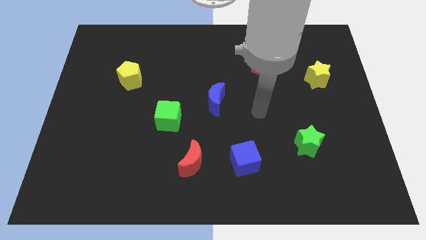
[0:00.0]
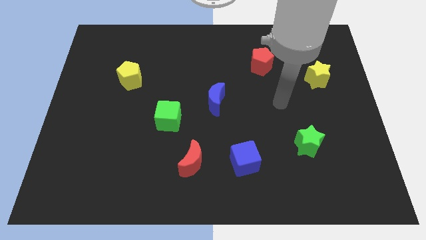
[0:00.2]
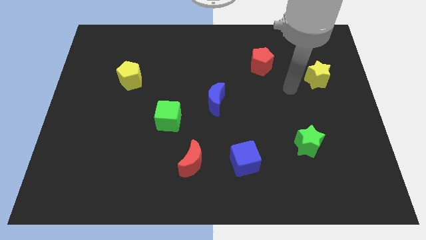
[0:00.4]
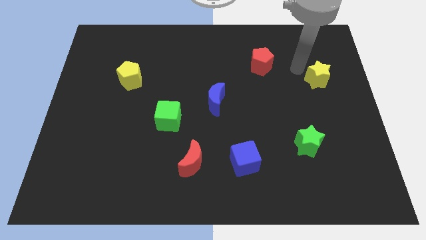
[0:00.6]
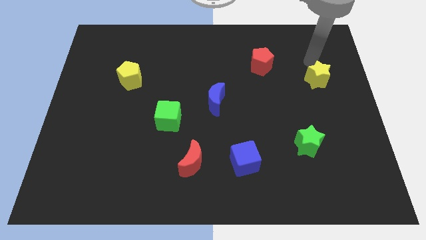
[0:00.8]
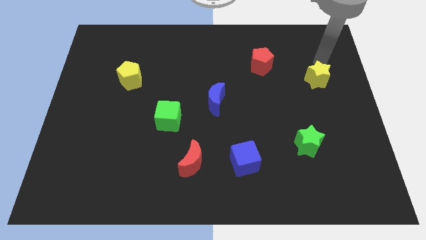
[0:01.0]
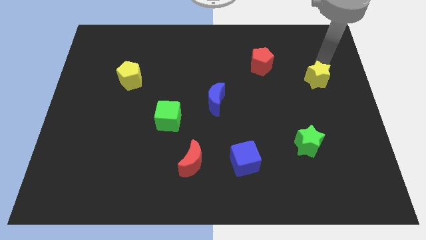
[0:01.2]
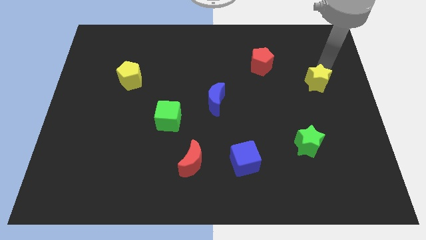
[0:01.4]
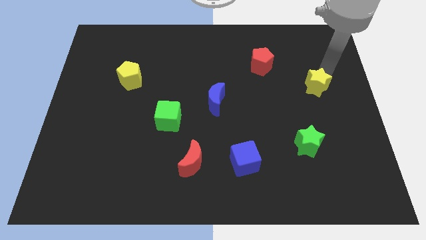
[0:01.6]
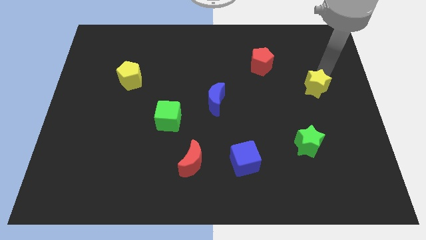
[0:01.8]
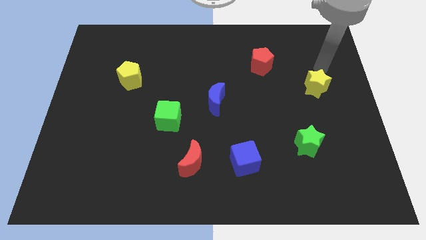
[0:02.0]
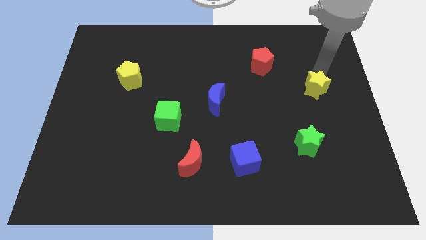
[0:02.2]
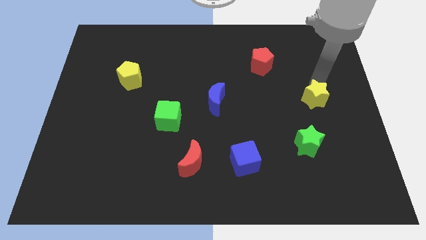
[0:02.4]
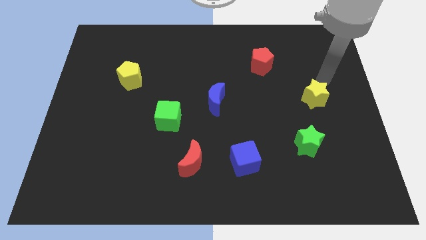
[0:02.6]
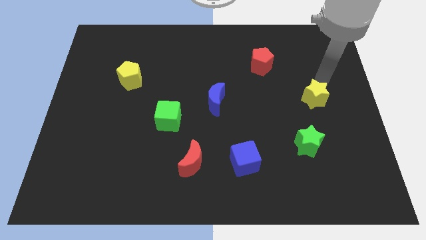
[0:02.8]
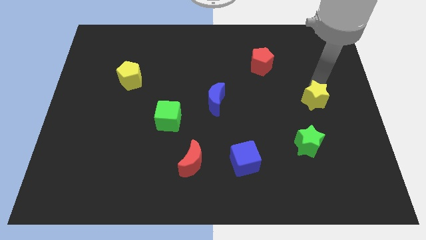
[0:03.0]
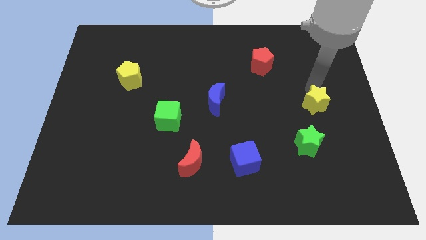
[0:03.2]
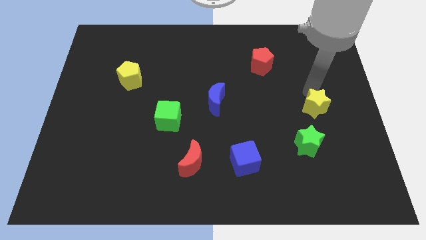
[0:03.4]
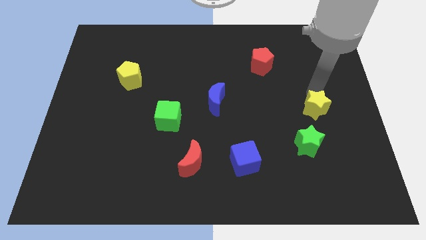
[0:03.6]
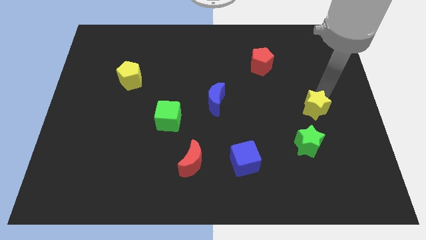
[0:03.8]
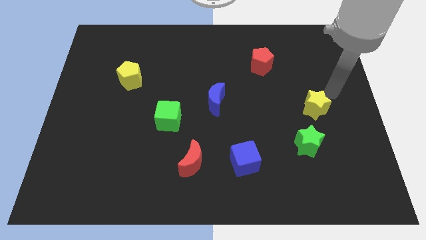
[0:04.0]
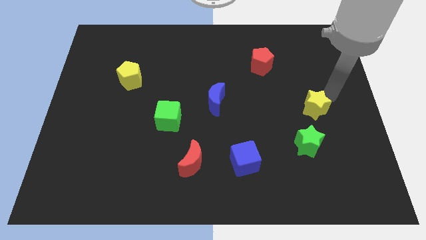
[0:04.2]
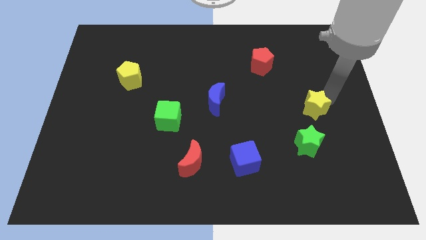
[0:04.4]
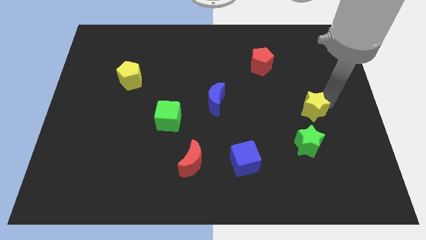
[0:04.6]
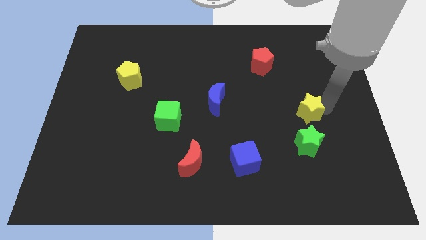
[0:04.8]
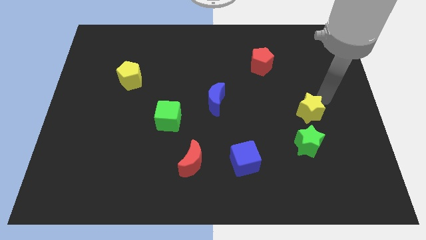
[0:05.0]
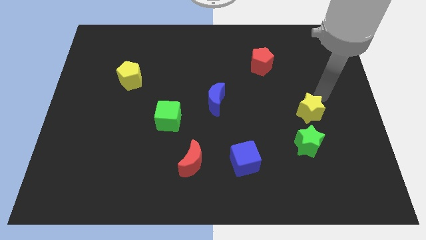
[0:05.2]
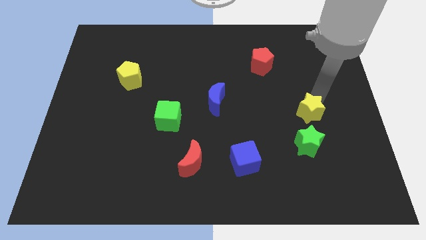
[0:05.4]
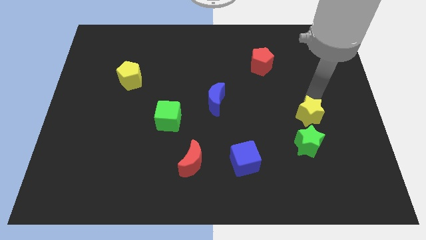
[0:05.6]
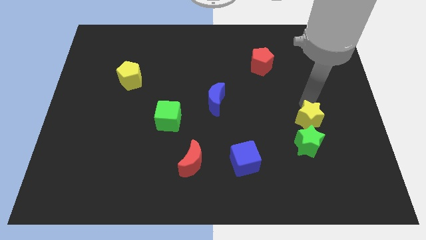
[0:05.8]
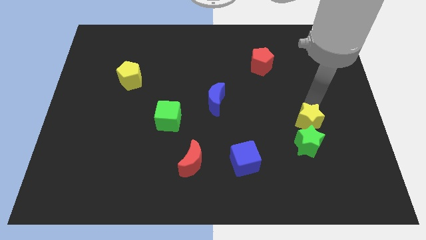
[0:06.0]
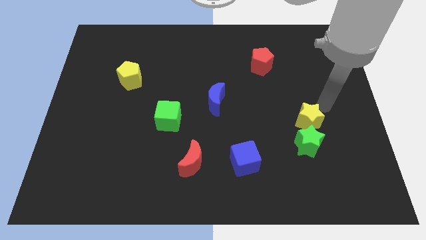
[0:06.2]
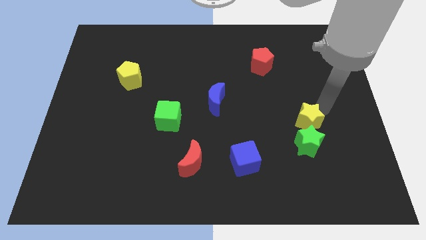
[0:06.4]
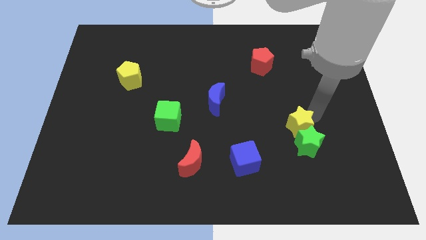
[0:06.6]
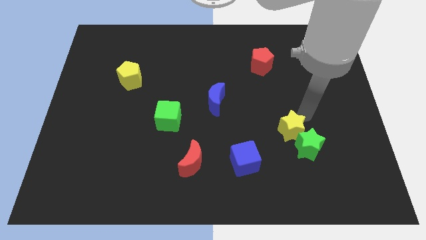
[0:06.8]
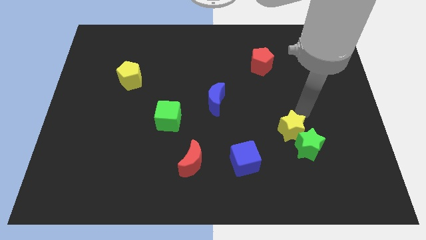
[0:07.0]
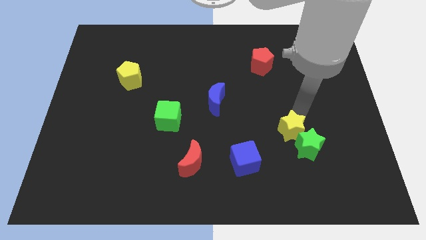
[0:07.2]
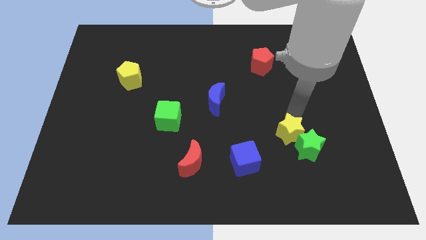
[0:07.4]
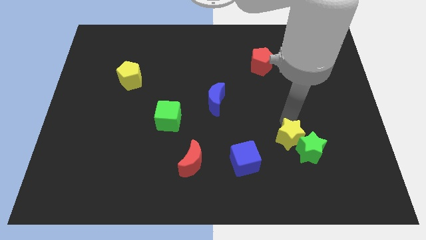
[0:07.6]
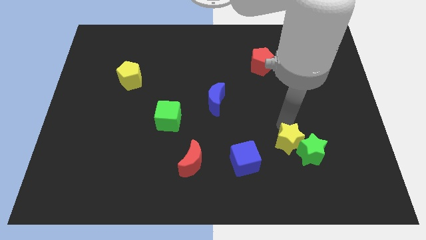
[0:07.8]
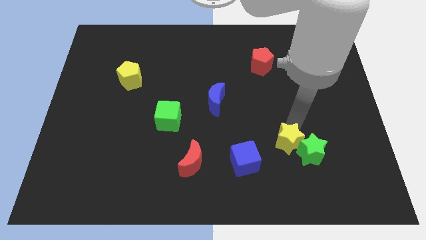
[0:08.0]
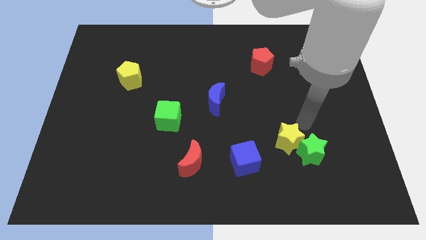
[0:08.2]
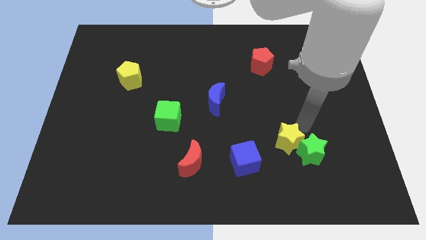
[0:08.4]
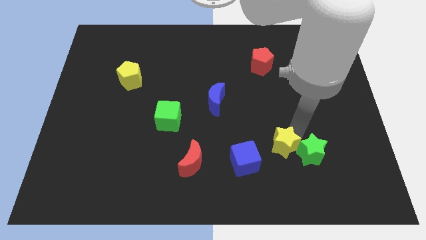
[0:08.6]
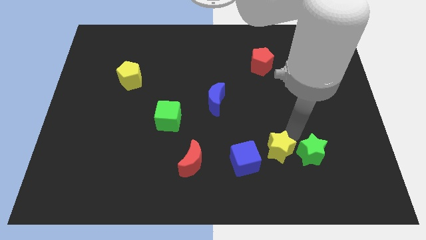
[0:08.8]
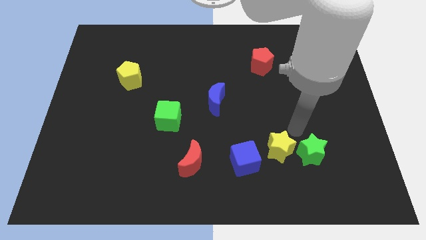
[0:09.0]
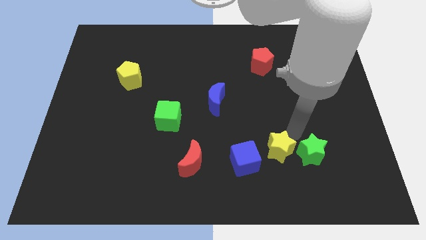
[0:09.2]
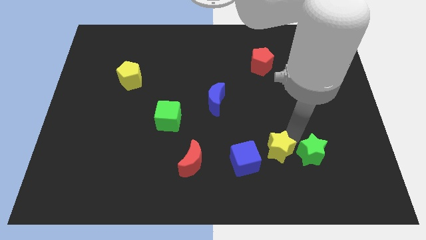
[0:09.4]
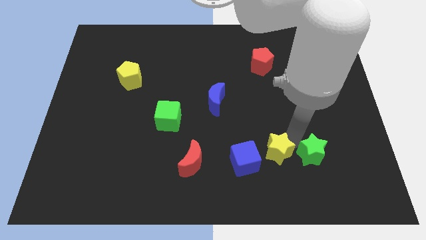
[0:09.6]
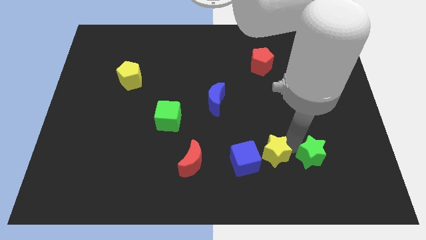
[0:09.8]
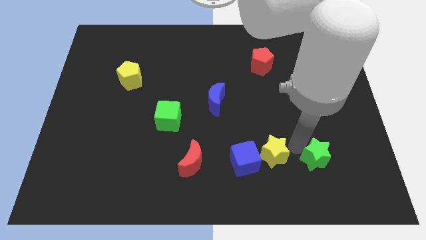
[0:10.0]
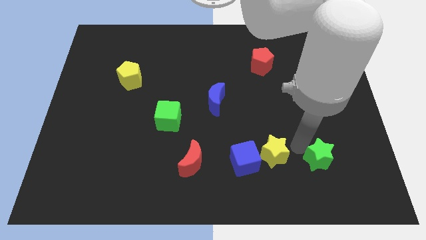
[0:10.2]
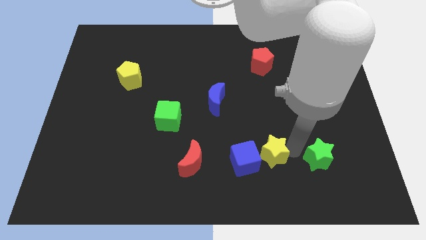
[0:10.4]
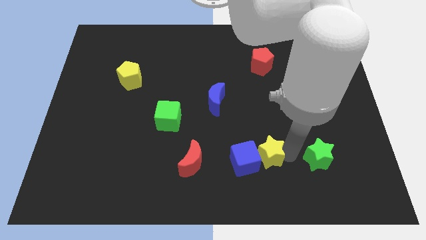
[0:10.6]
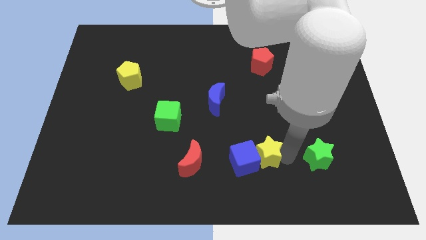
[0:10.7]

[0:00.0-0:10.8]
push the yellow star to the right of the red moon

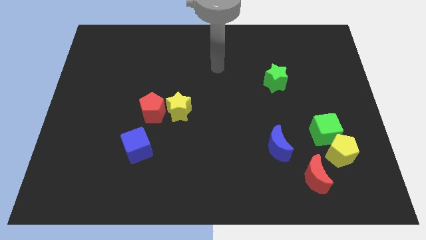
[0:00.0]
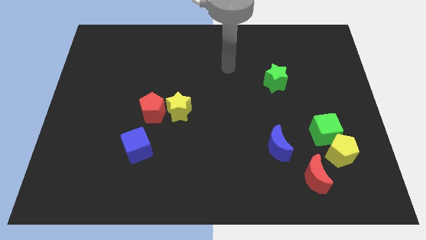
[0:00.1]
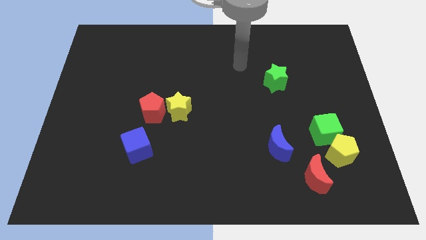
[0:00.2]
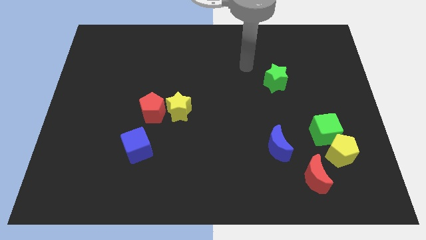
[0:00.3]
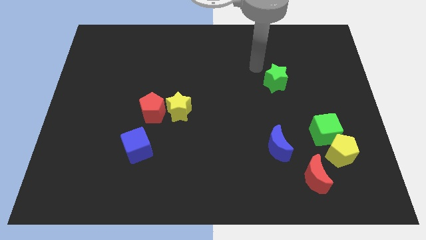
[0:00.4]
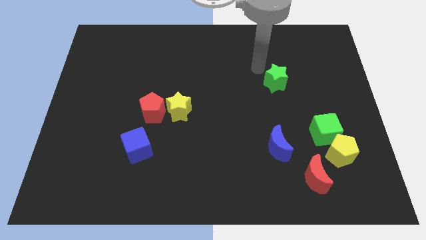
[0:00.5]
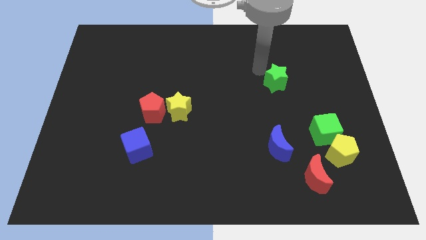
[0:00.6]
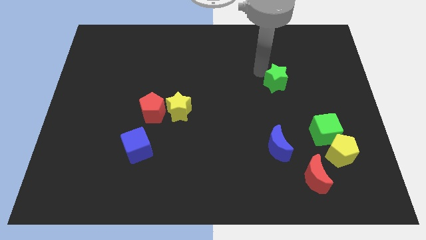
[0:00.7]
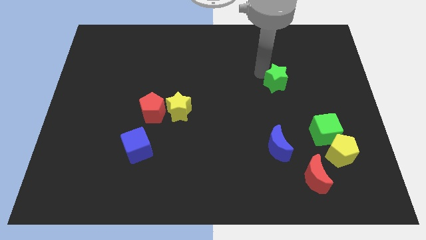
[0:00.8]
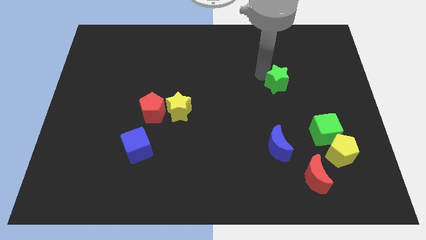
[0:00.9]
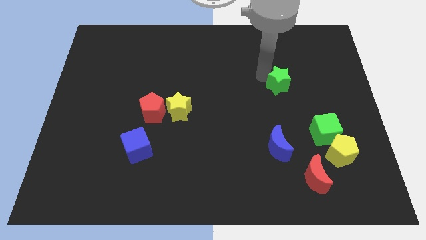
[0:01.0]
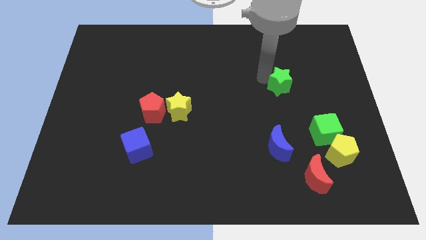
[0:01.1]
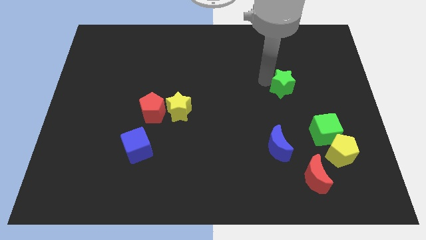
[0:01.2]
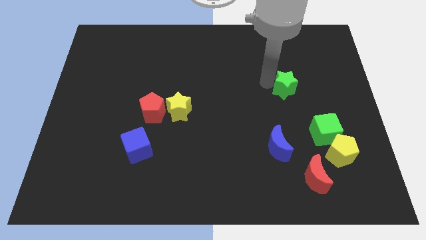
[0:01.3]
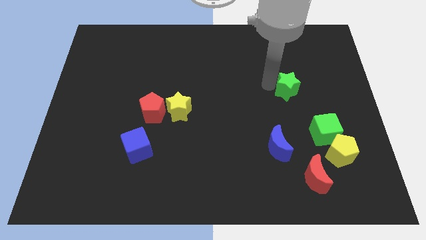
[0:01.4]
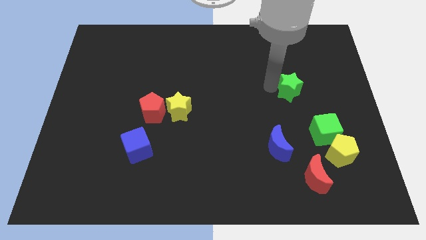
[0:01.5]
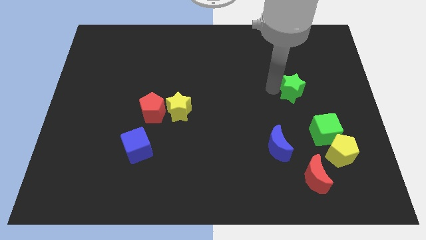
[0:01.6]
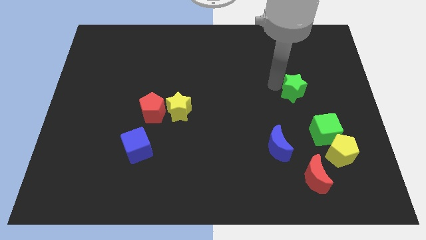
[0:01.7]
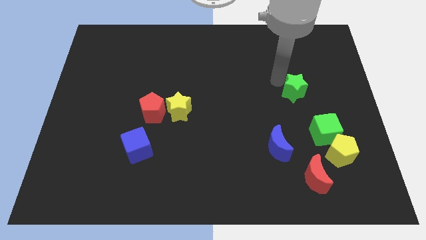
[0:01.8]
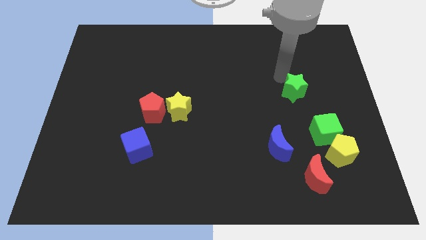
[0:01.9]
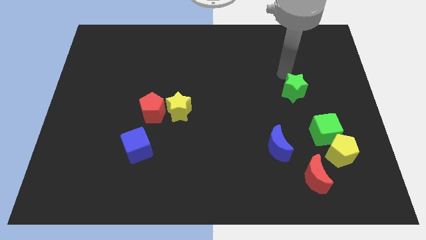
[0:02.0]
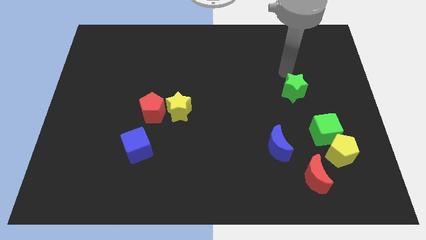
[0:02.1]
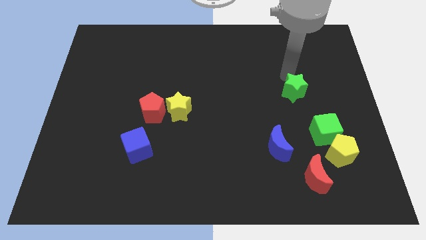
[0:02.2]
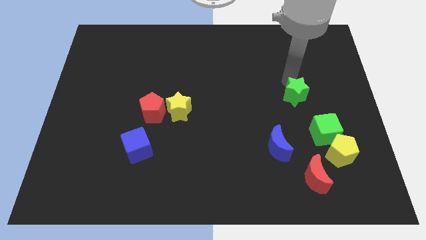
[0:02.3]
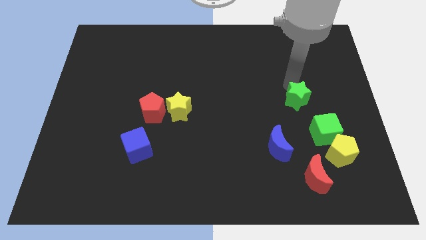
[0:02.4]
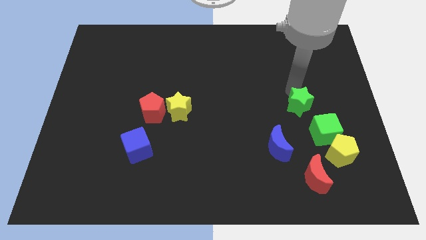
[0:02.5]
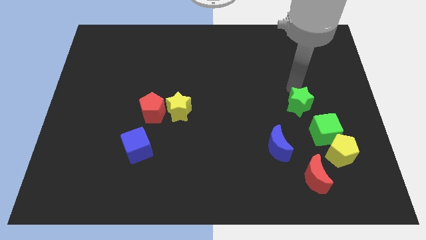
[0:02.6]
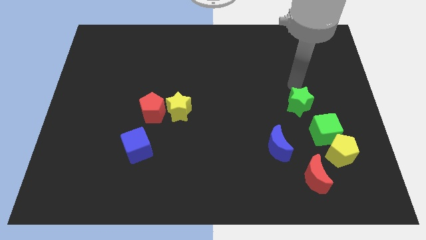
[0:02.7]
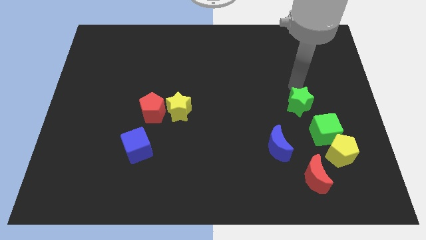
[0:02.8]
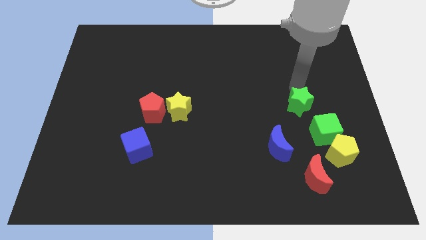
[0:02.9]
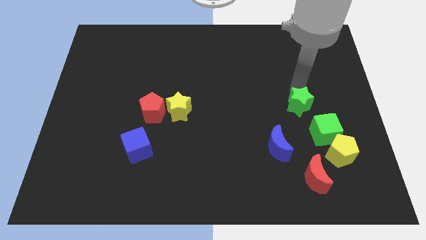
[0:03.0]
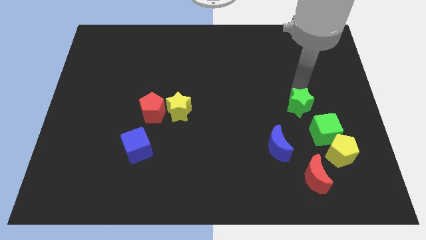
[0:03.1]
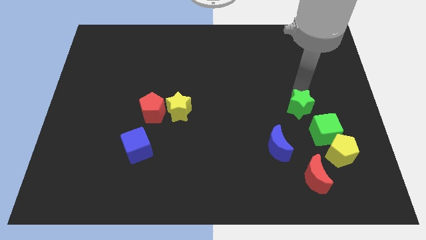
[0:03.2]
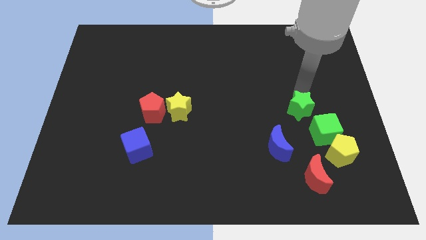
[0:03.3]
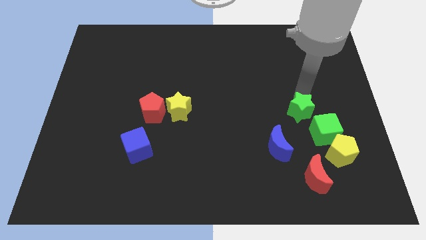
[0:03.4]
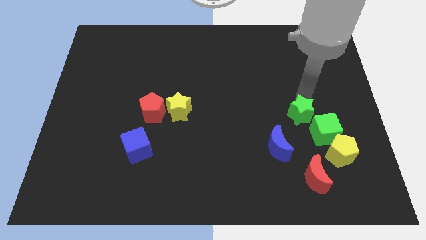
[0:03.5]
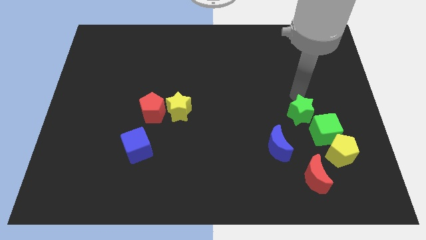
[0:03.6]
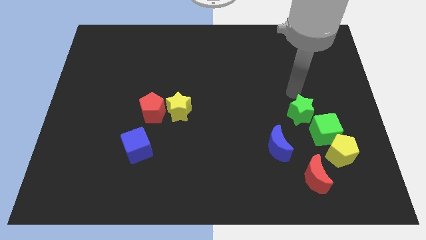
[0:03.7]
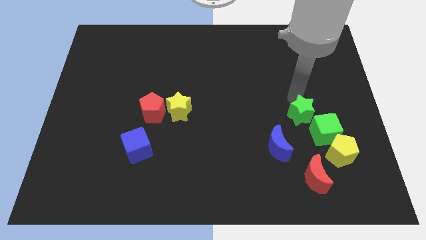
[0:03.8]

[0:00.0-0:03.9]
move the green star to the top left of the yellow pentagon
